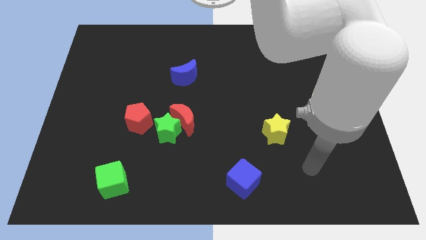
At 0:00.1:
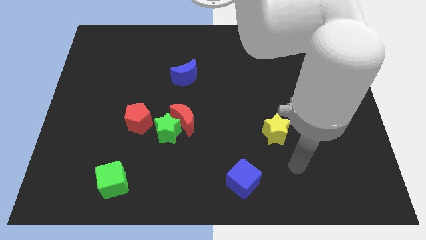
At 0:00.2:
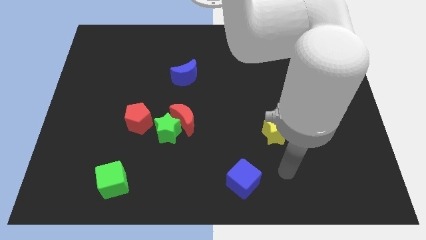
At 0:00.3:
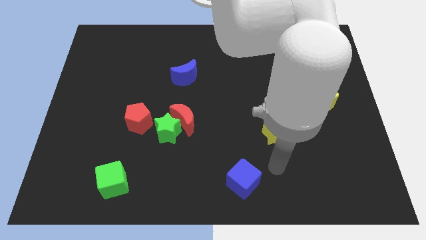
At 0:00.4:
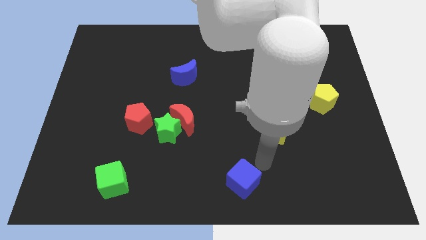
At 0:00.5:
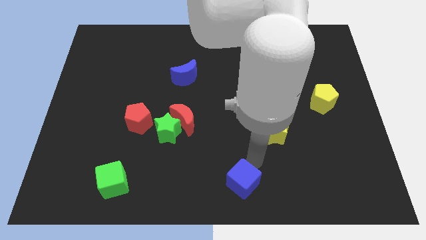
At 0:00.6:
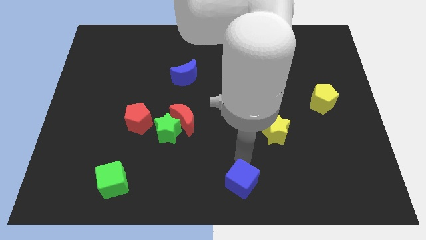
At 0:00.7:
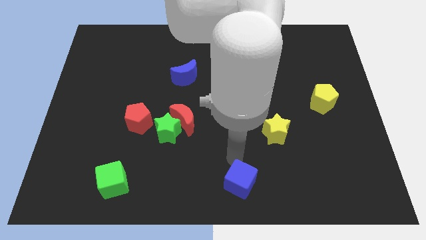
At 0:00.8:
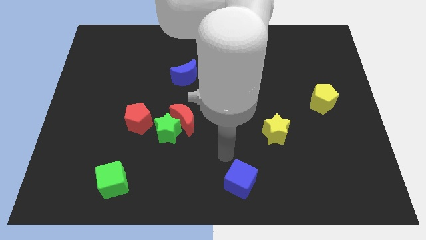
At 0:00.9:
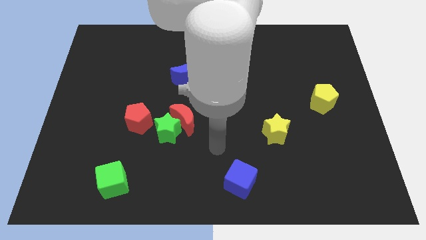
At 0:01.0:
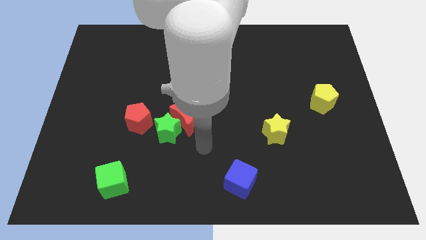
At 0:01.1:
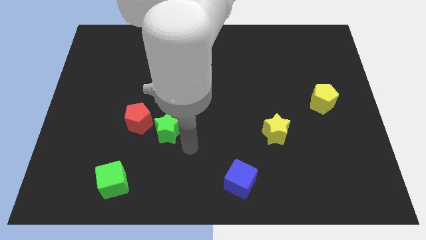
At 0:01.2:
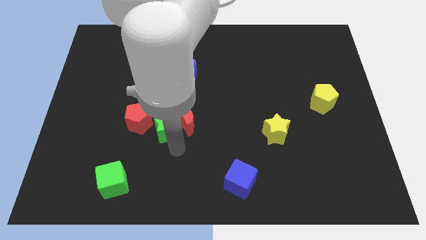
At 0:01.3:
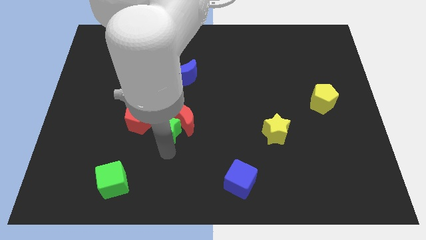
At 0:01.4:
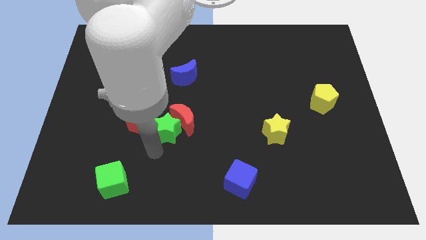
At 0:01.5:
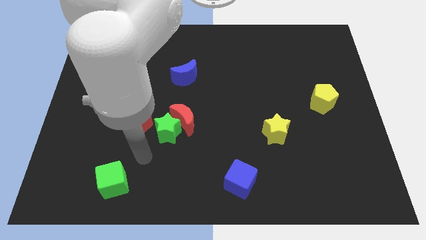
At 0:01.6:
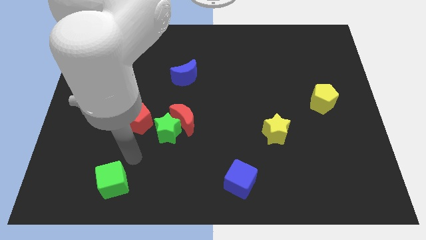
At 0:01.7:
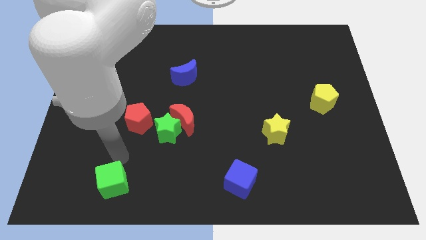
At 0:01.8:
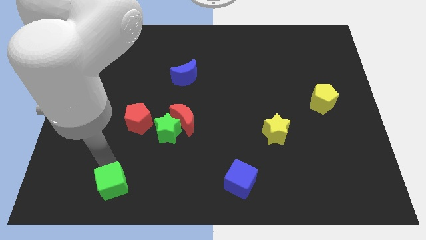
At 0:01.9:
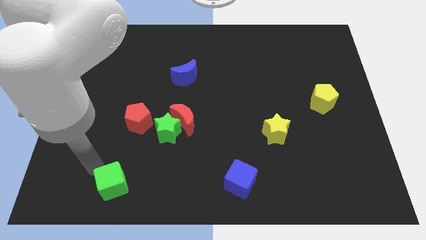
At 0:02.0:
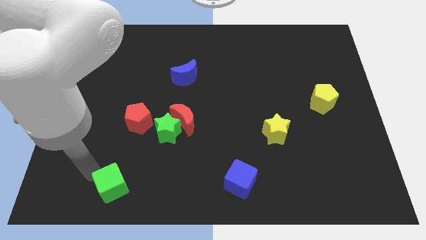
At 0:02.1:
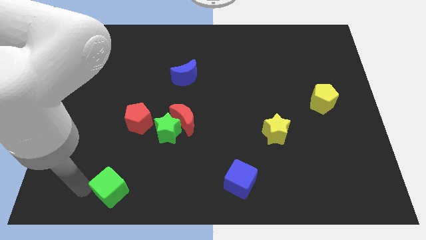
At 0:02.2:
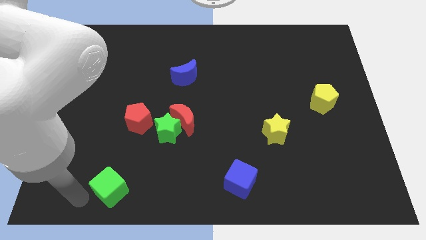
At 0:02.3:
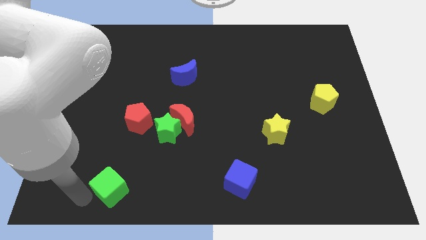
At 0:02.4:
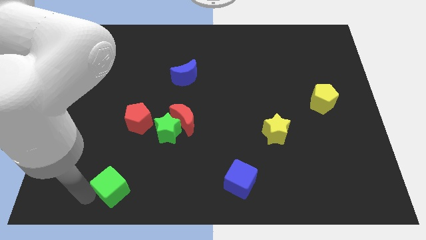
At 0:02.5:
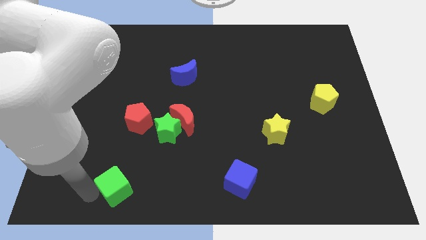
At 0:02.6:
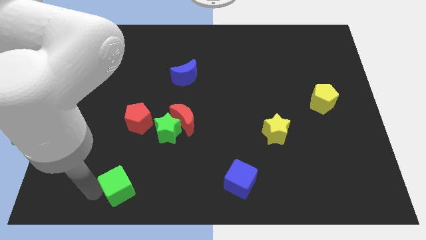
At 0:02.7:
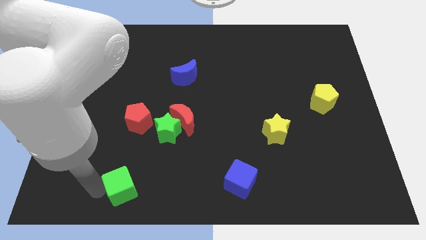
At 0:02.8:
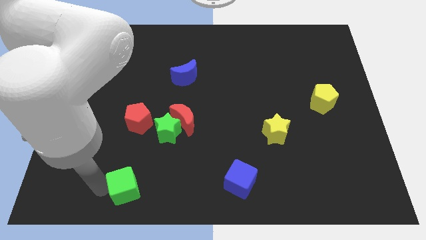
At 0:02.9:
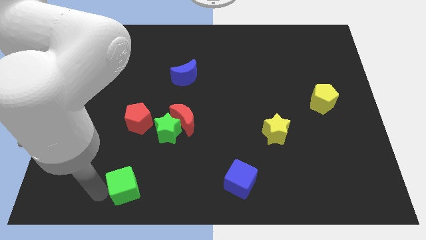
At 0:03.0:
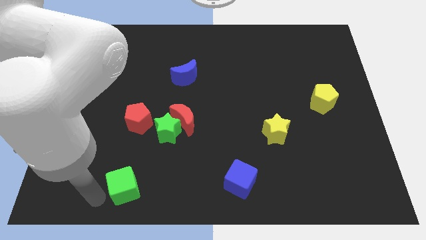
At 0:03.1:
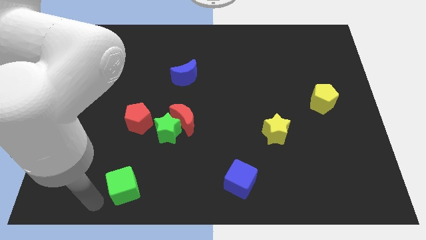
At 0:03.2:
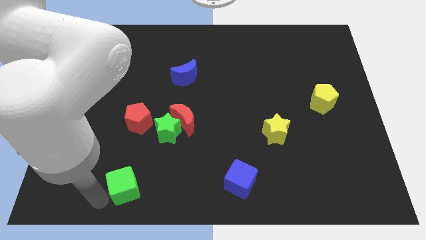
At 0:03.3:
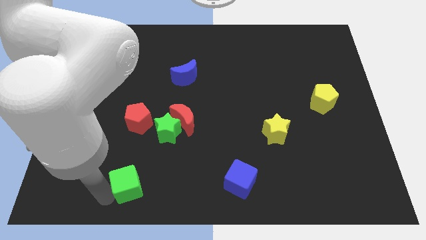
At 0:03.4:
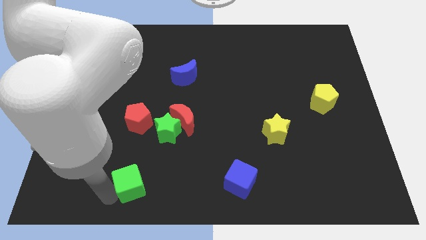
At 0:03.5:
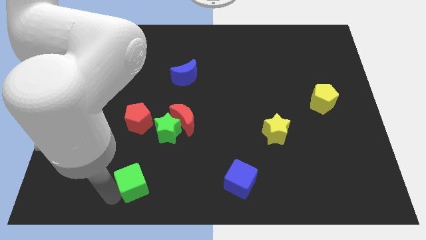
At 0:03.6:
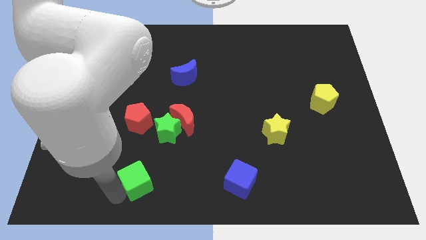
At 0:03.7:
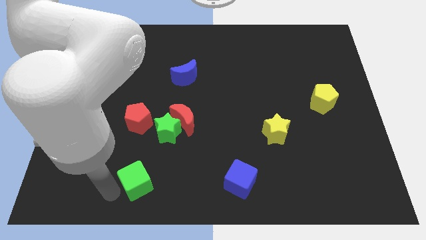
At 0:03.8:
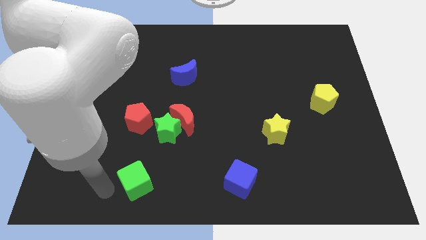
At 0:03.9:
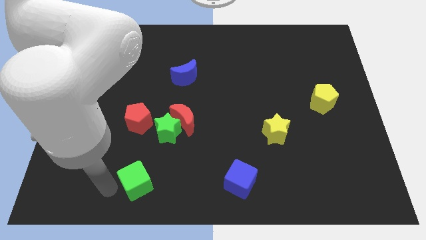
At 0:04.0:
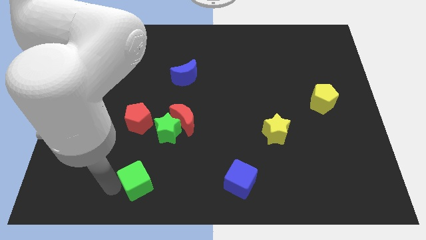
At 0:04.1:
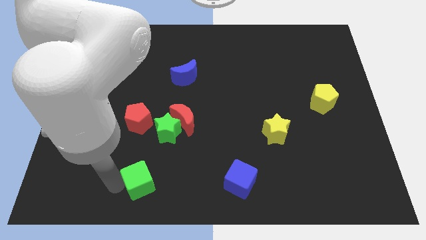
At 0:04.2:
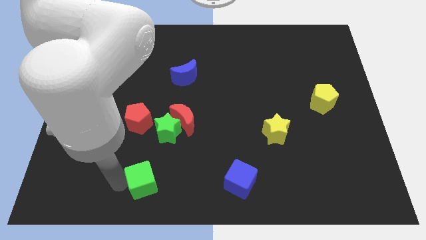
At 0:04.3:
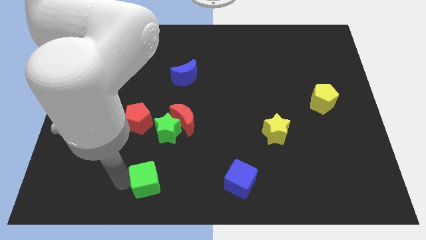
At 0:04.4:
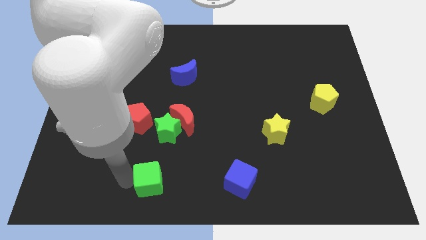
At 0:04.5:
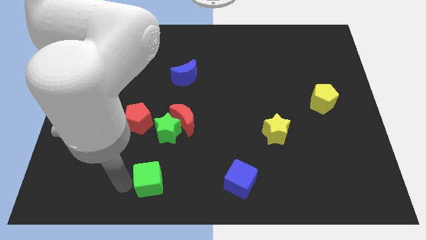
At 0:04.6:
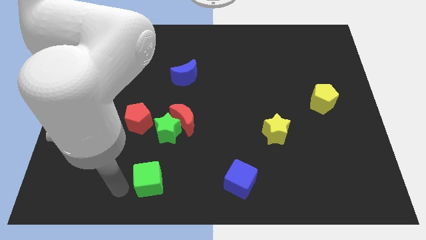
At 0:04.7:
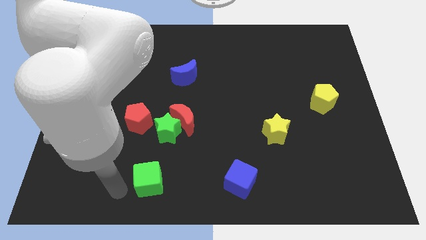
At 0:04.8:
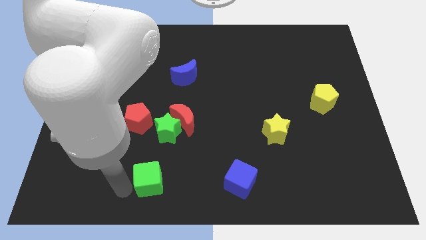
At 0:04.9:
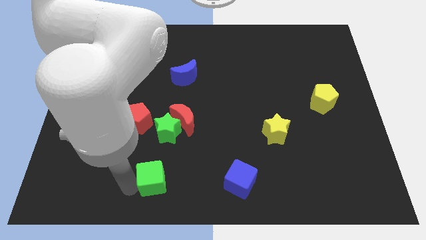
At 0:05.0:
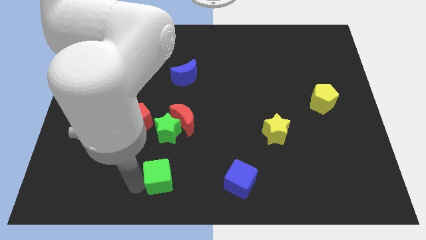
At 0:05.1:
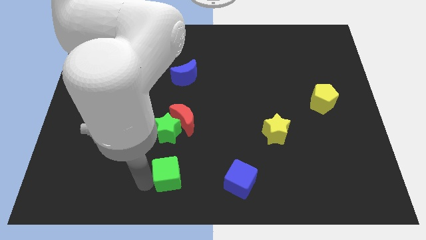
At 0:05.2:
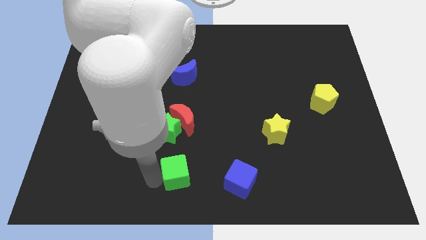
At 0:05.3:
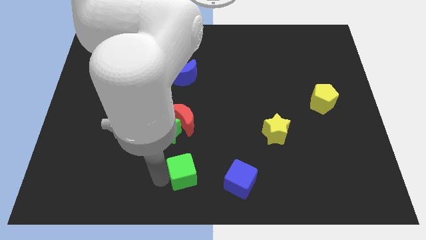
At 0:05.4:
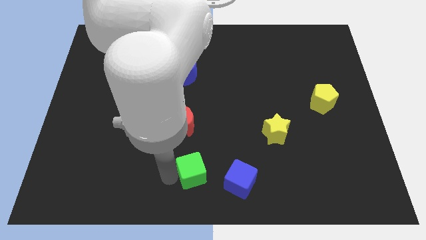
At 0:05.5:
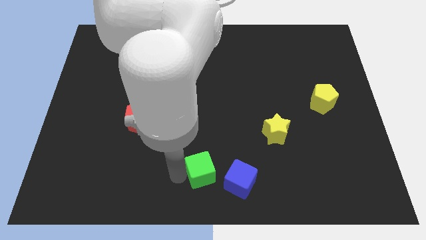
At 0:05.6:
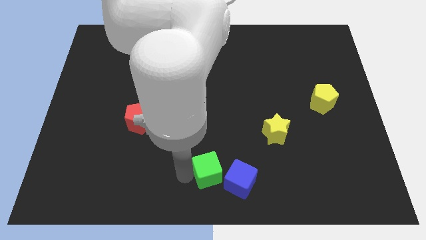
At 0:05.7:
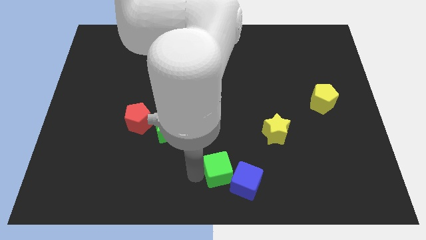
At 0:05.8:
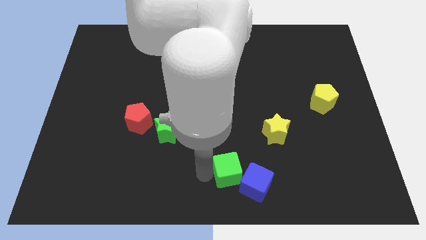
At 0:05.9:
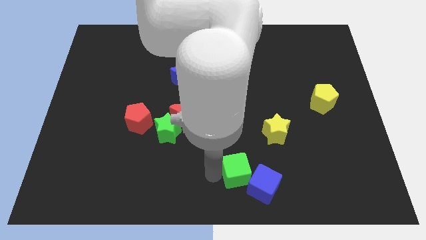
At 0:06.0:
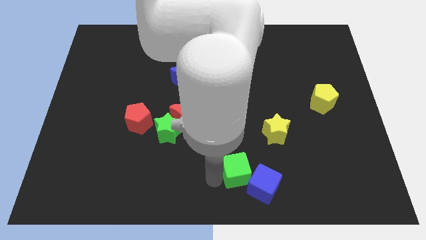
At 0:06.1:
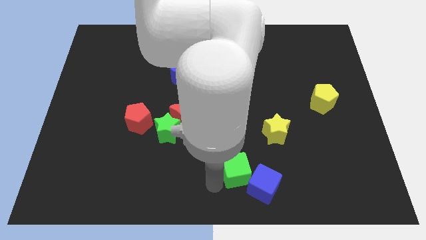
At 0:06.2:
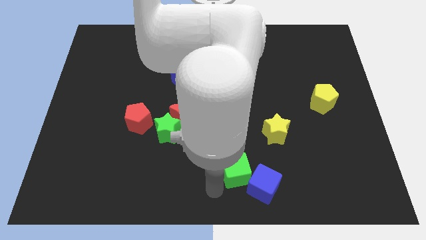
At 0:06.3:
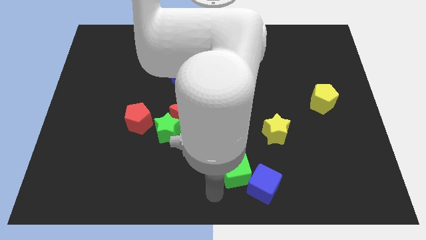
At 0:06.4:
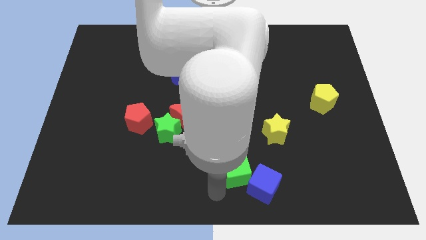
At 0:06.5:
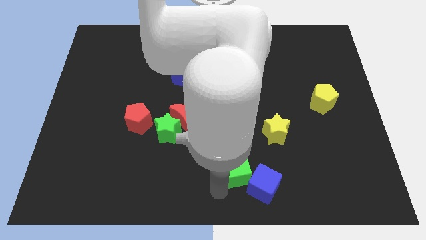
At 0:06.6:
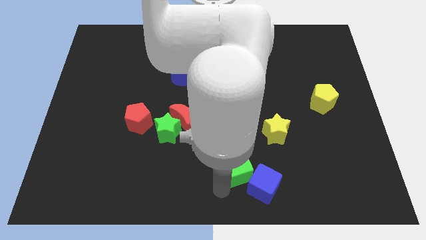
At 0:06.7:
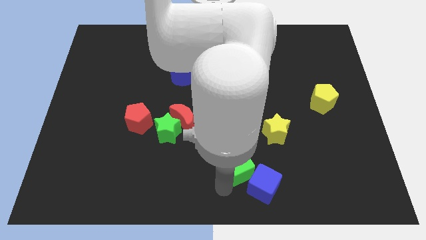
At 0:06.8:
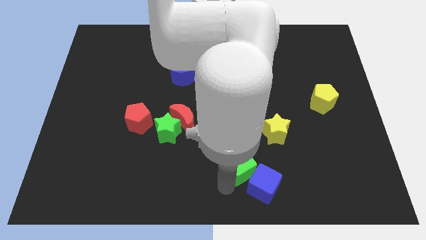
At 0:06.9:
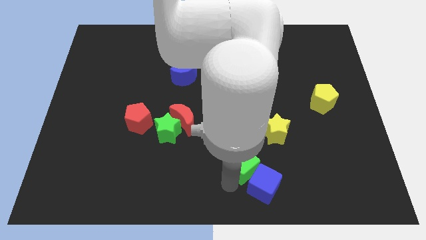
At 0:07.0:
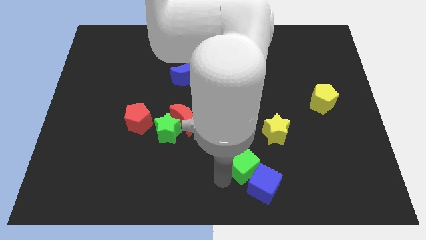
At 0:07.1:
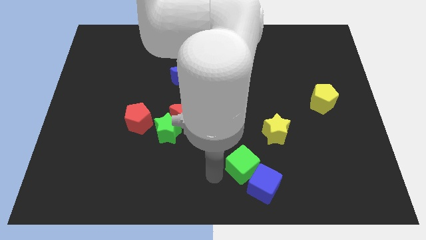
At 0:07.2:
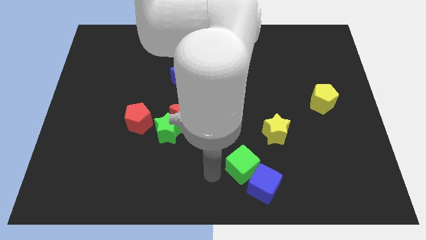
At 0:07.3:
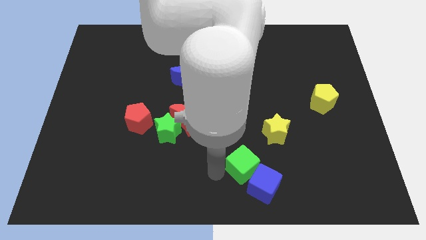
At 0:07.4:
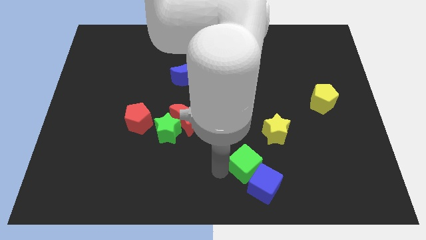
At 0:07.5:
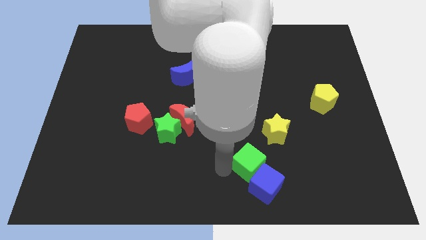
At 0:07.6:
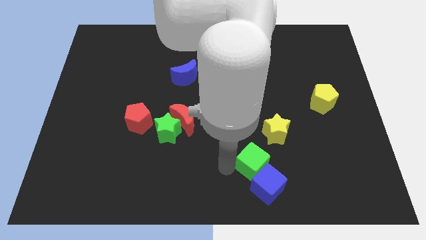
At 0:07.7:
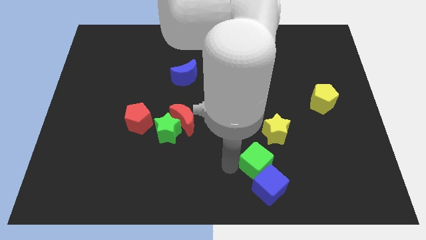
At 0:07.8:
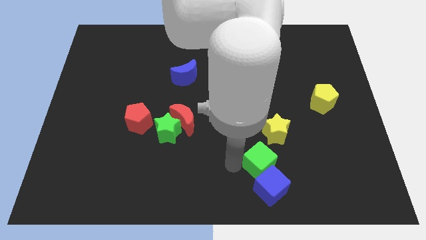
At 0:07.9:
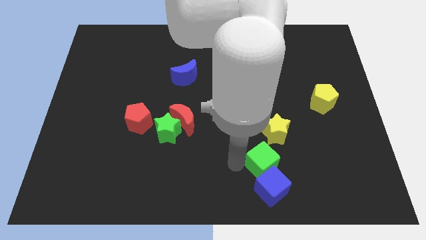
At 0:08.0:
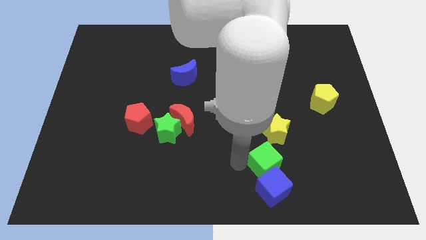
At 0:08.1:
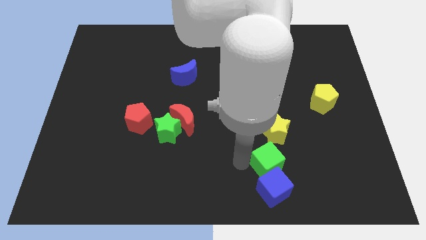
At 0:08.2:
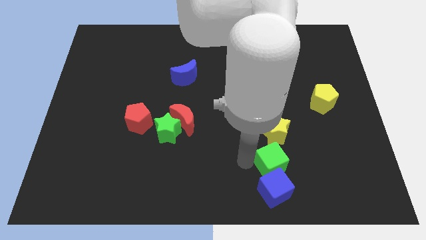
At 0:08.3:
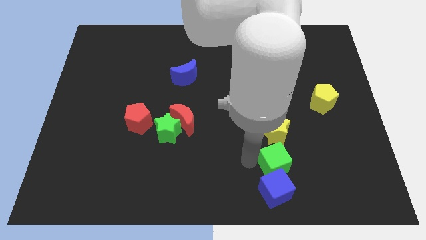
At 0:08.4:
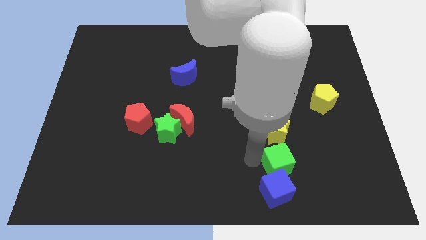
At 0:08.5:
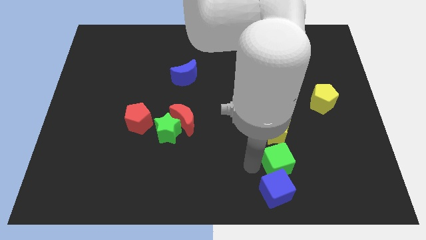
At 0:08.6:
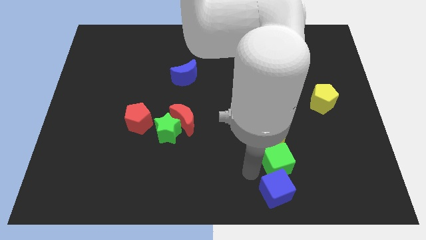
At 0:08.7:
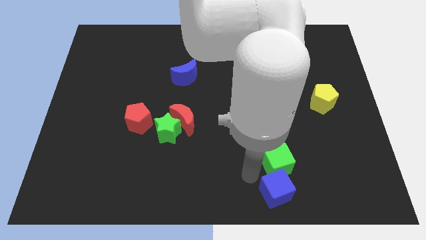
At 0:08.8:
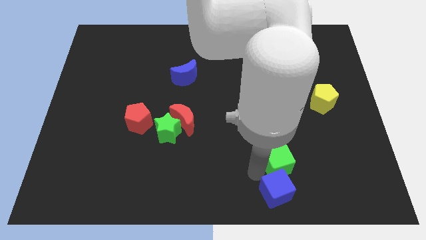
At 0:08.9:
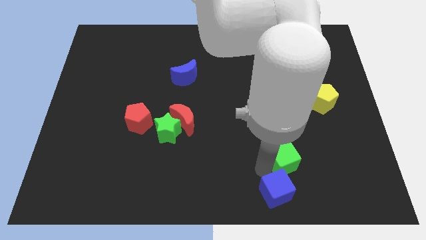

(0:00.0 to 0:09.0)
slide the green cube to the bottom right of the yellow star
